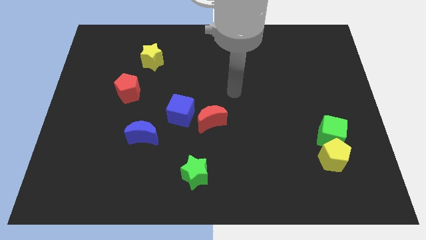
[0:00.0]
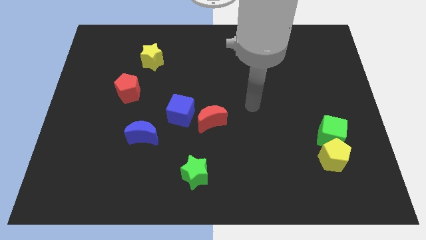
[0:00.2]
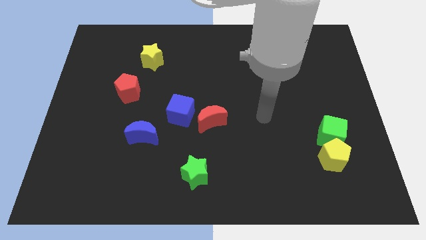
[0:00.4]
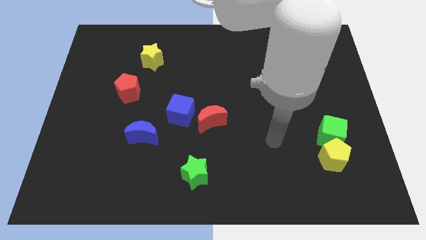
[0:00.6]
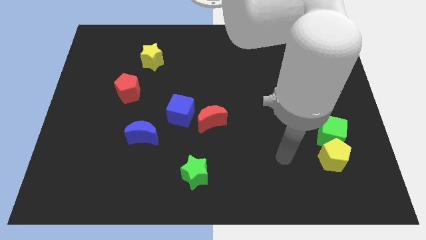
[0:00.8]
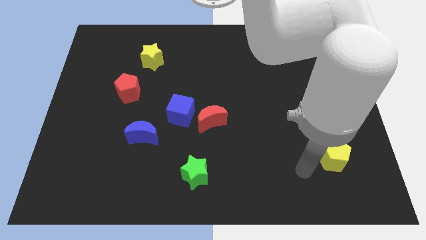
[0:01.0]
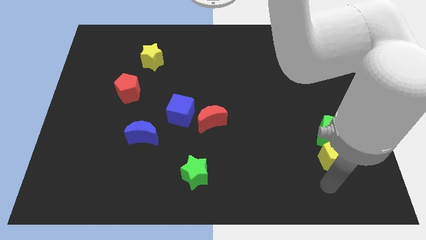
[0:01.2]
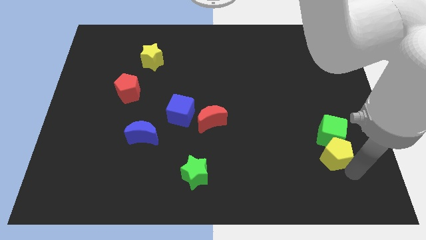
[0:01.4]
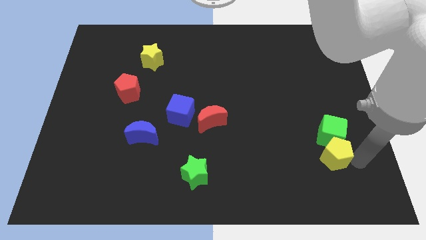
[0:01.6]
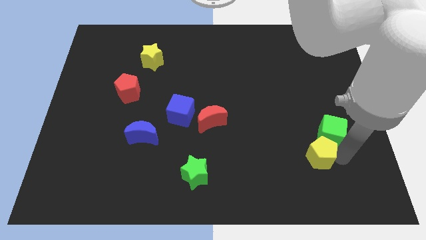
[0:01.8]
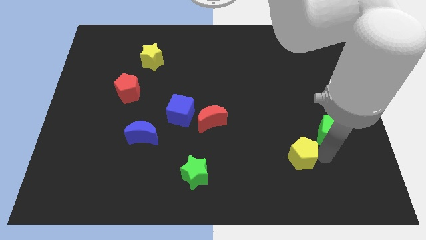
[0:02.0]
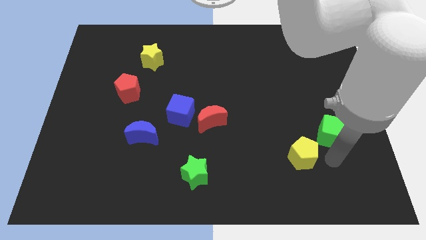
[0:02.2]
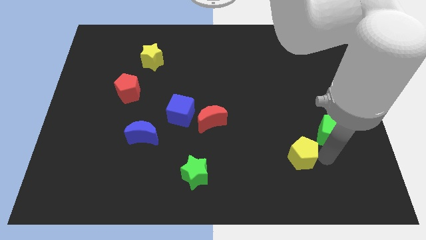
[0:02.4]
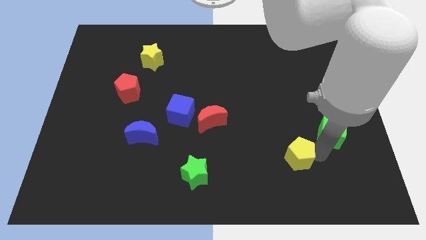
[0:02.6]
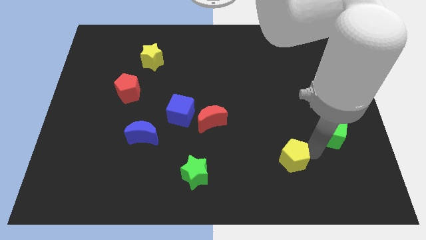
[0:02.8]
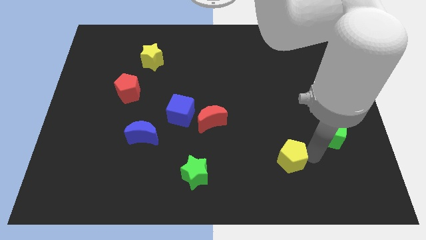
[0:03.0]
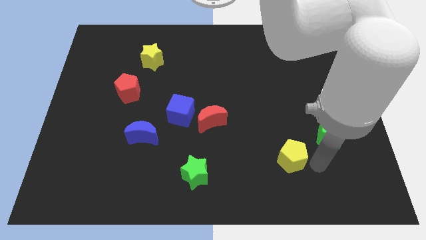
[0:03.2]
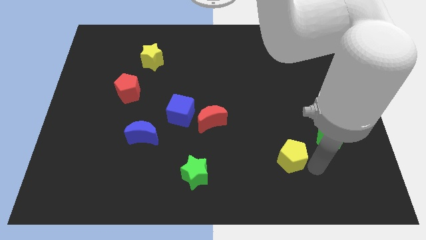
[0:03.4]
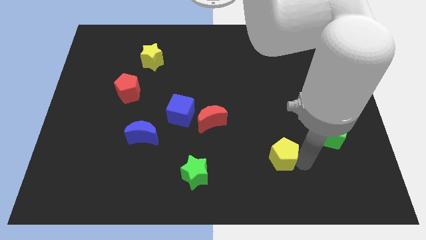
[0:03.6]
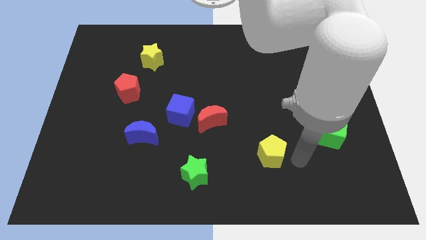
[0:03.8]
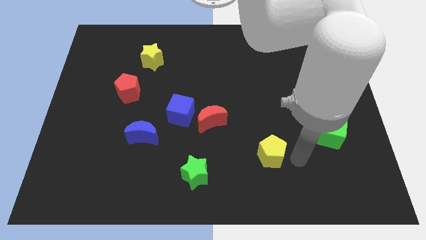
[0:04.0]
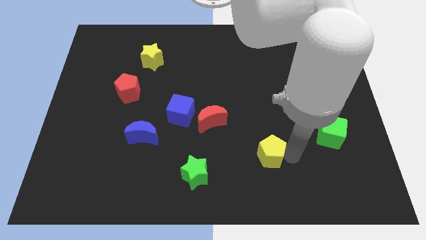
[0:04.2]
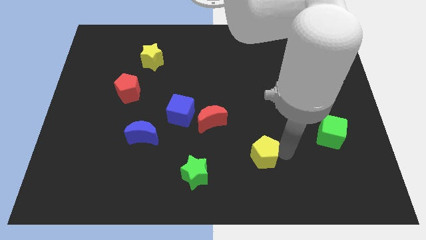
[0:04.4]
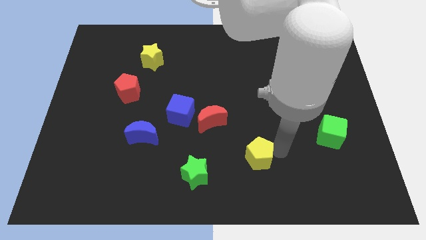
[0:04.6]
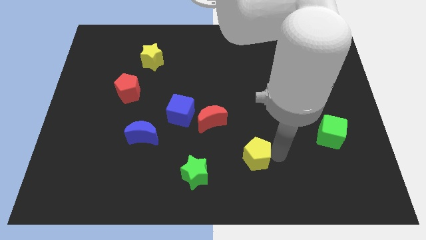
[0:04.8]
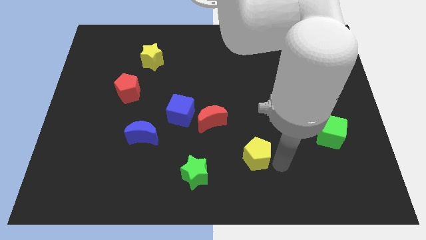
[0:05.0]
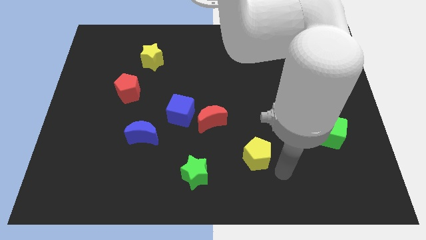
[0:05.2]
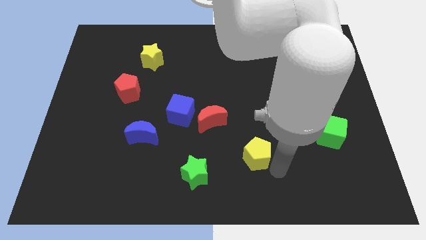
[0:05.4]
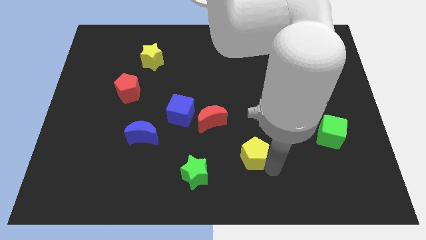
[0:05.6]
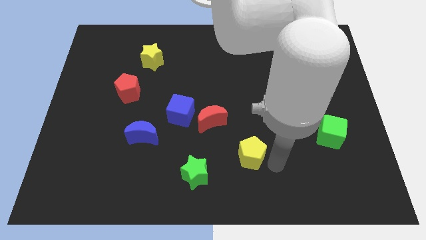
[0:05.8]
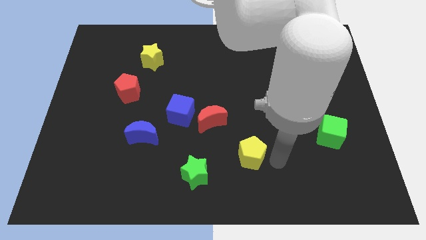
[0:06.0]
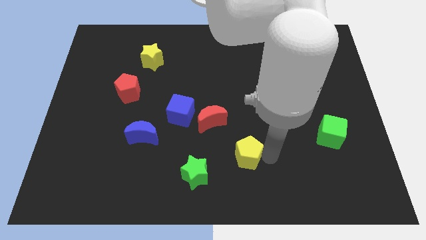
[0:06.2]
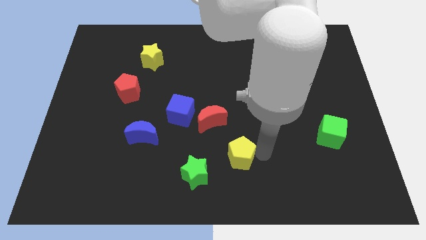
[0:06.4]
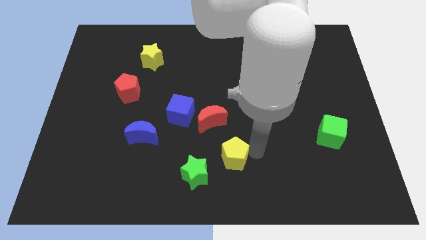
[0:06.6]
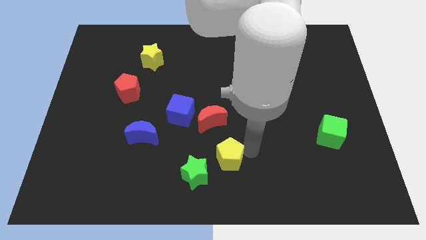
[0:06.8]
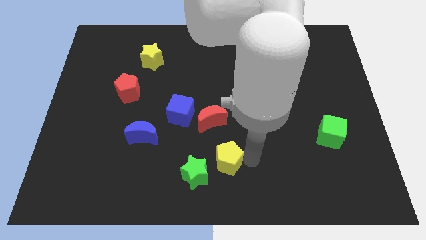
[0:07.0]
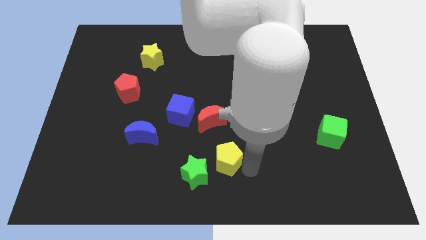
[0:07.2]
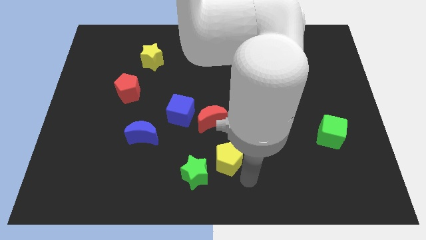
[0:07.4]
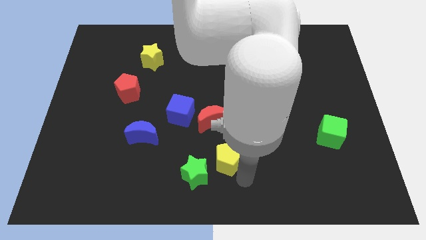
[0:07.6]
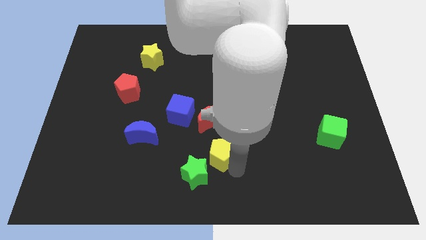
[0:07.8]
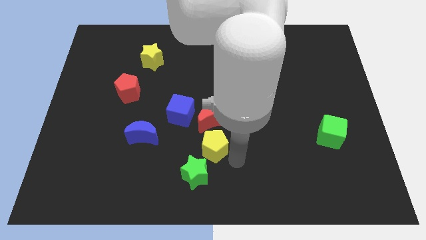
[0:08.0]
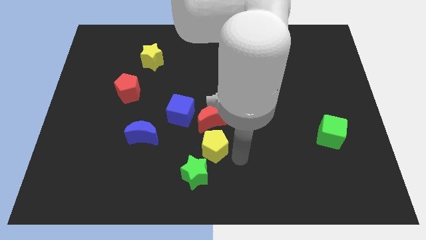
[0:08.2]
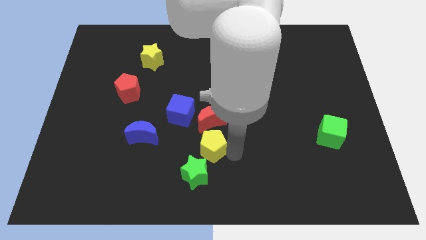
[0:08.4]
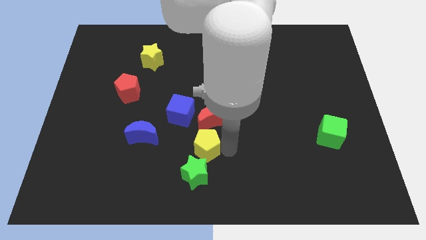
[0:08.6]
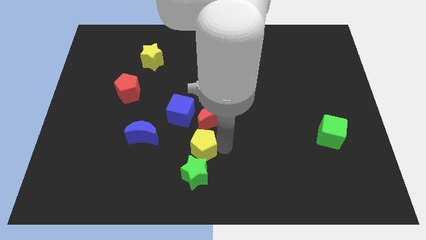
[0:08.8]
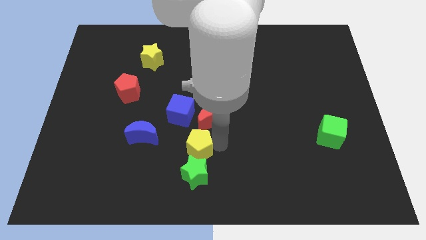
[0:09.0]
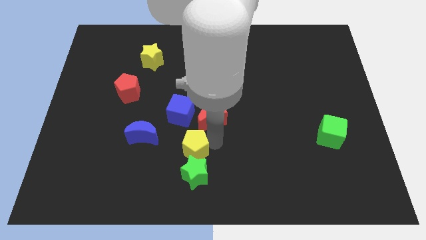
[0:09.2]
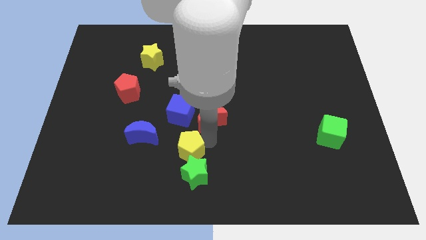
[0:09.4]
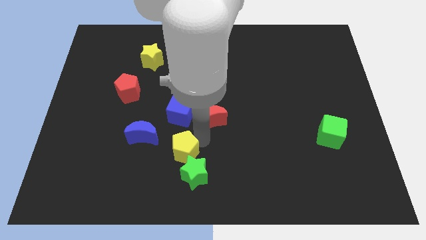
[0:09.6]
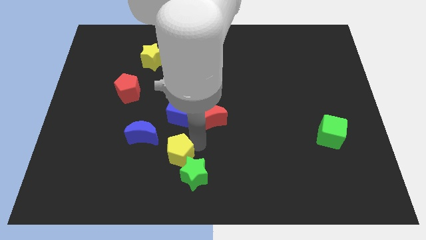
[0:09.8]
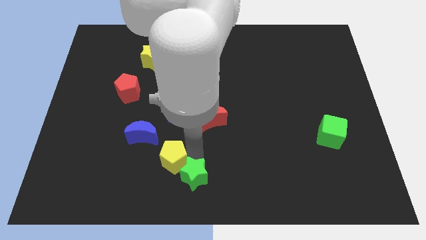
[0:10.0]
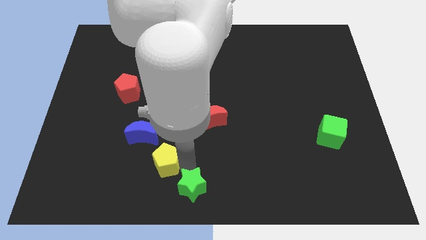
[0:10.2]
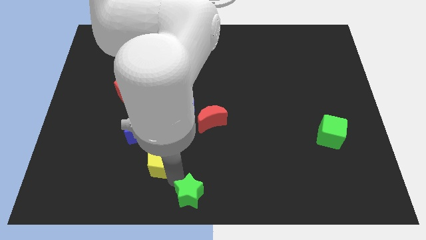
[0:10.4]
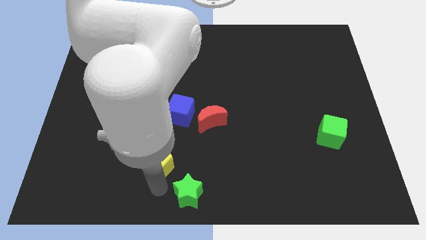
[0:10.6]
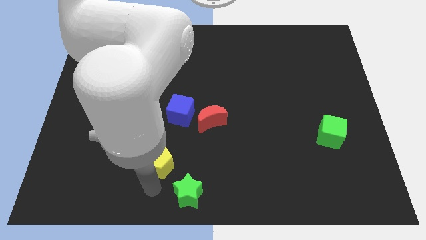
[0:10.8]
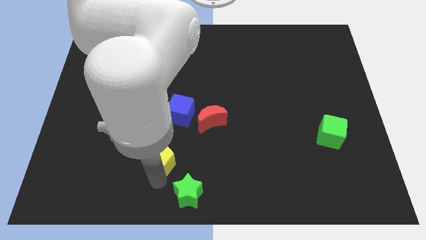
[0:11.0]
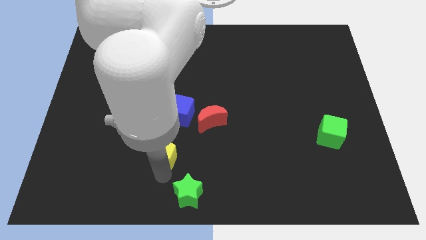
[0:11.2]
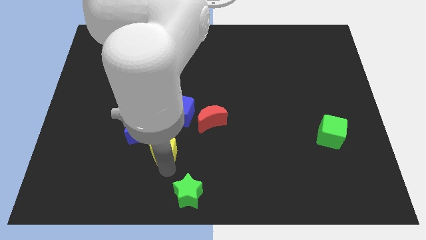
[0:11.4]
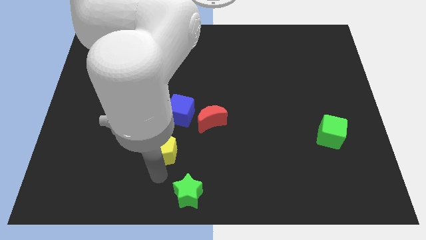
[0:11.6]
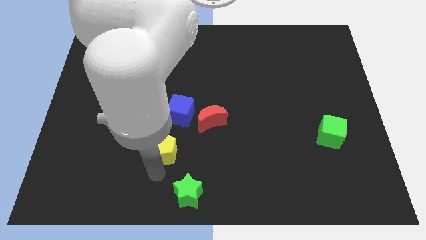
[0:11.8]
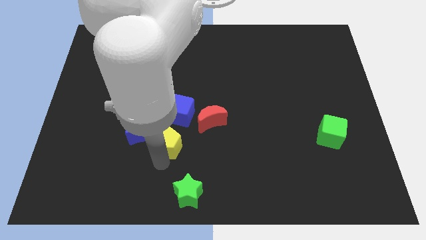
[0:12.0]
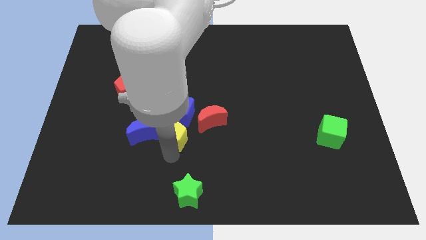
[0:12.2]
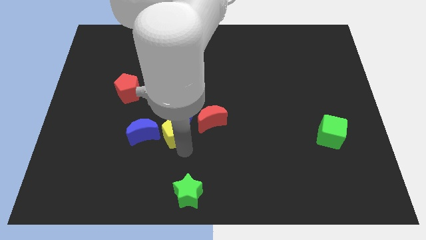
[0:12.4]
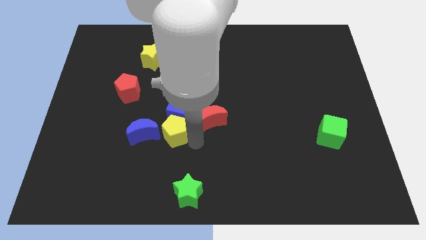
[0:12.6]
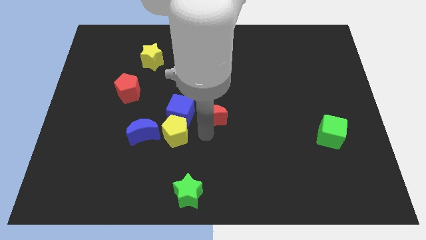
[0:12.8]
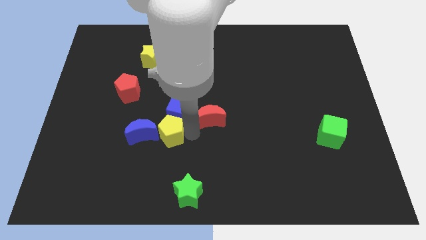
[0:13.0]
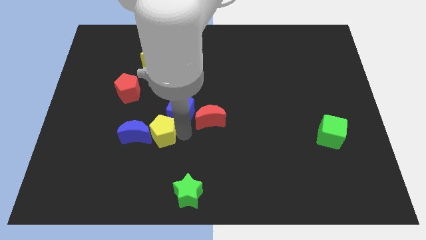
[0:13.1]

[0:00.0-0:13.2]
slide the yellow pentagon to the blue moon
